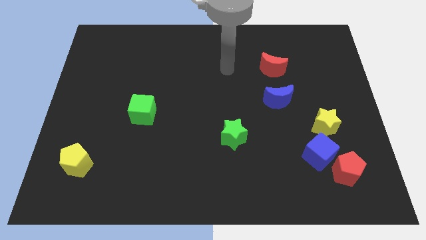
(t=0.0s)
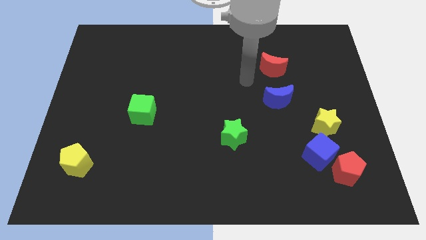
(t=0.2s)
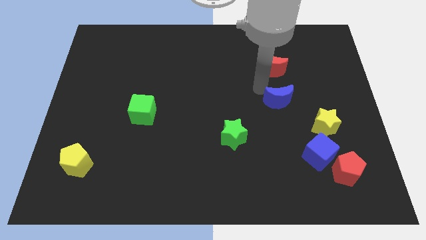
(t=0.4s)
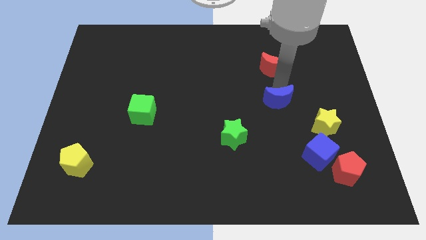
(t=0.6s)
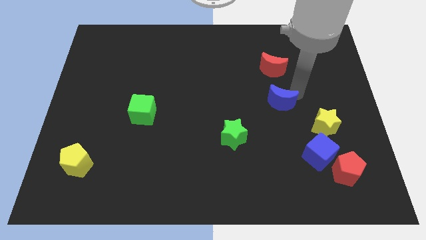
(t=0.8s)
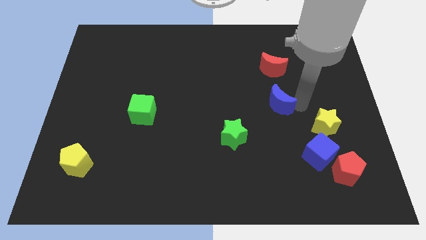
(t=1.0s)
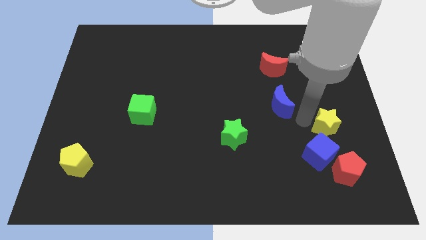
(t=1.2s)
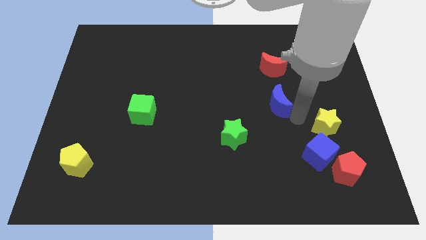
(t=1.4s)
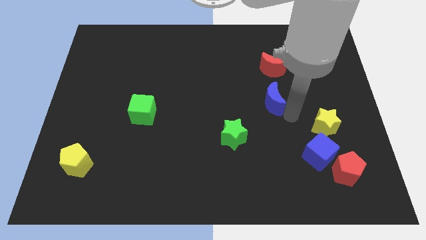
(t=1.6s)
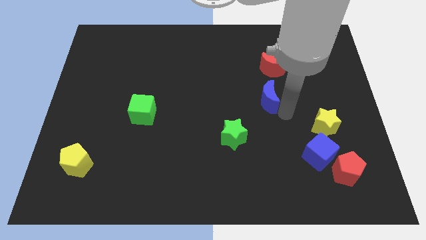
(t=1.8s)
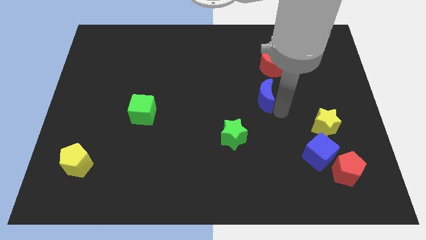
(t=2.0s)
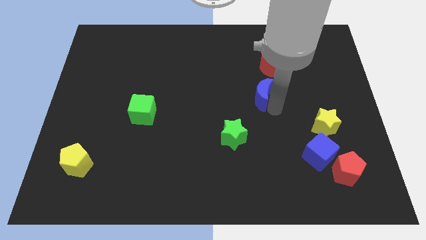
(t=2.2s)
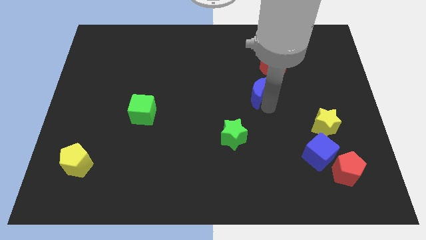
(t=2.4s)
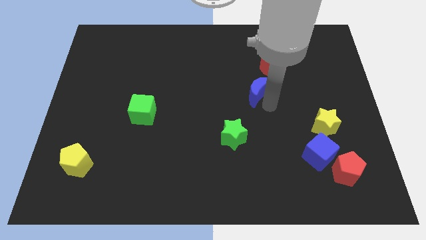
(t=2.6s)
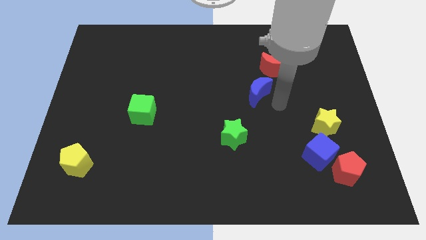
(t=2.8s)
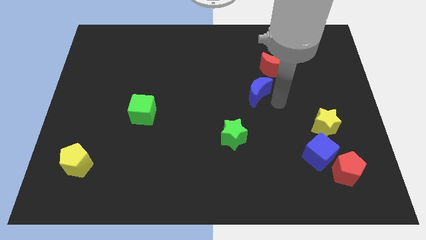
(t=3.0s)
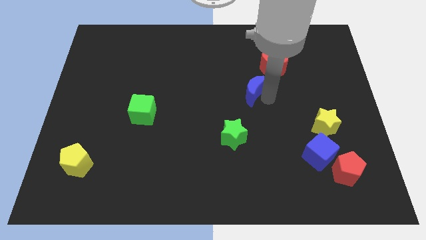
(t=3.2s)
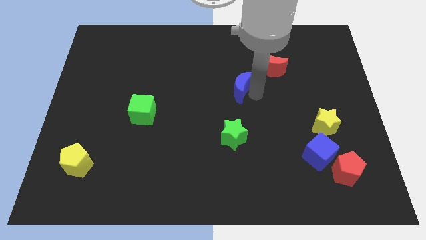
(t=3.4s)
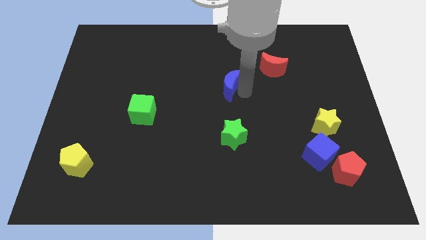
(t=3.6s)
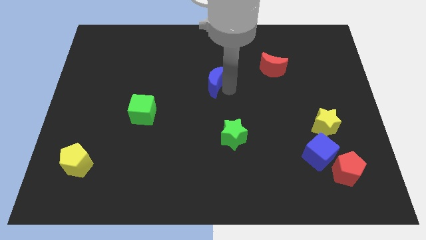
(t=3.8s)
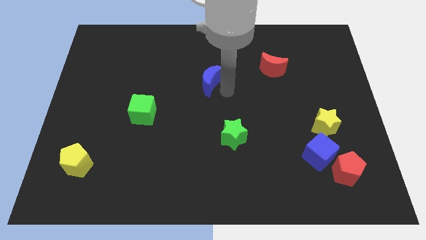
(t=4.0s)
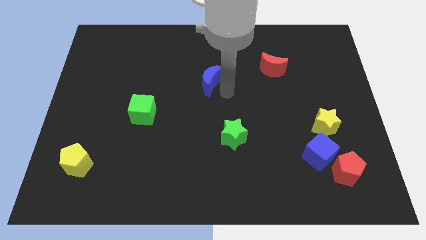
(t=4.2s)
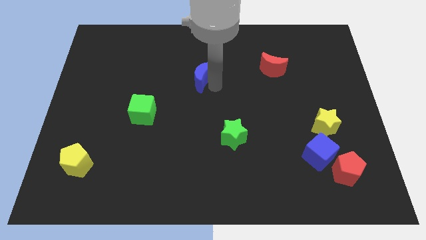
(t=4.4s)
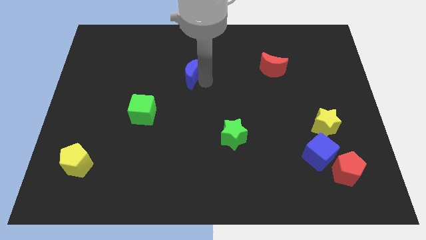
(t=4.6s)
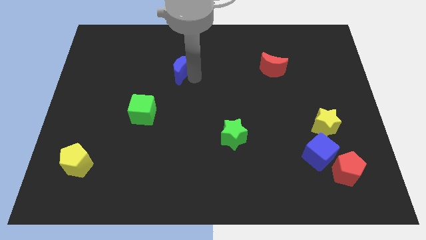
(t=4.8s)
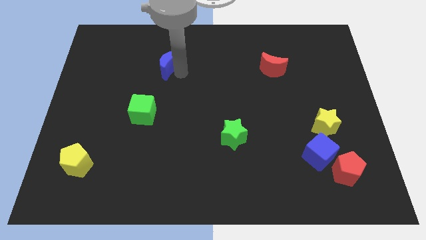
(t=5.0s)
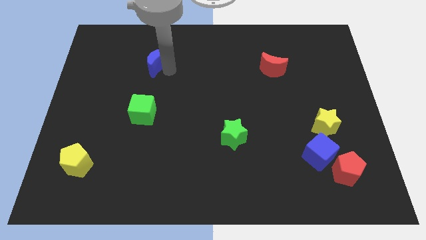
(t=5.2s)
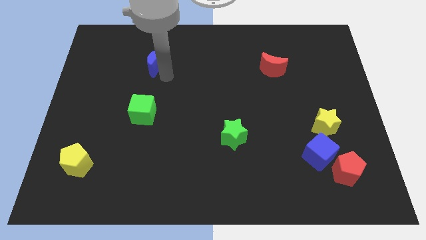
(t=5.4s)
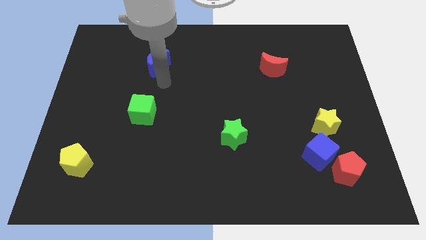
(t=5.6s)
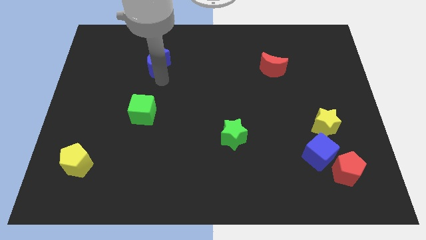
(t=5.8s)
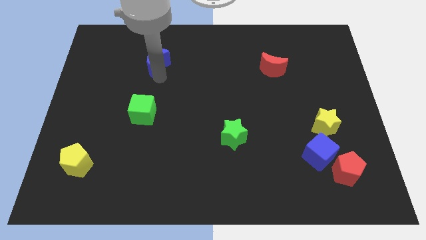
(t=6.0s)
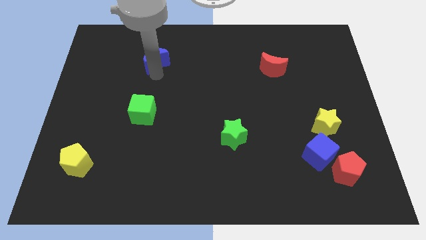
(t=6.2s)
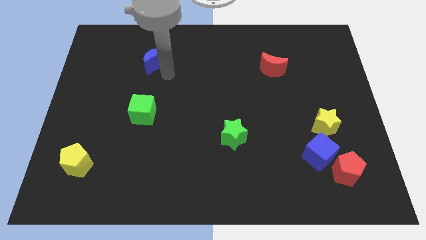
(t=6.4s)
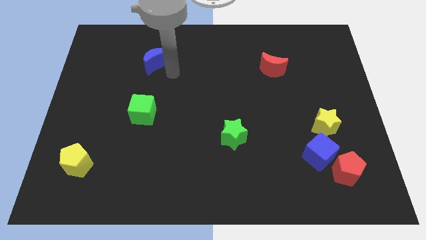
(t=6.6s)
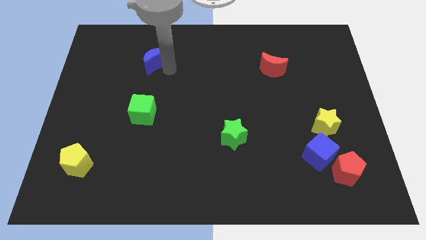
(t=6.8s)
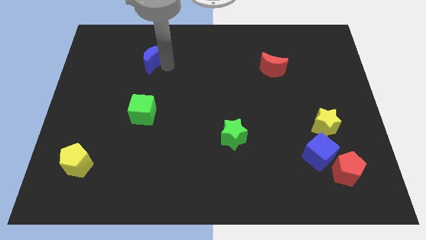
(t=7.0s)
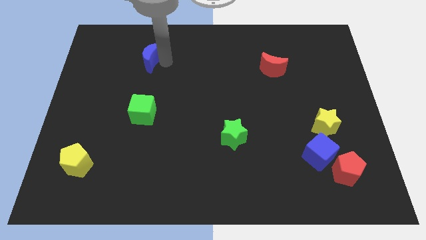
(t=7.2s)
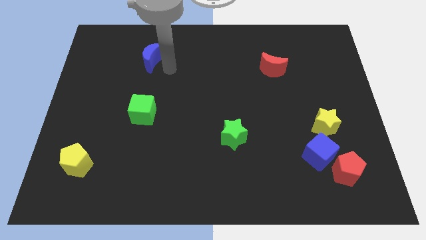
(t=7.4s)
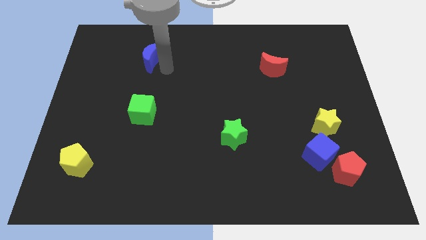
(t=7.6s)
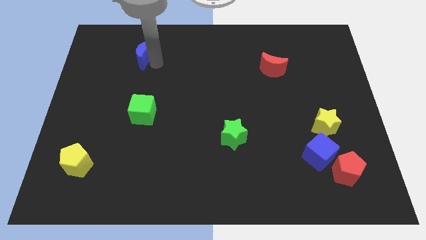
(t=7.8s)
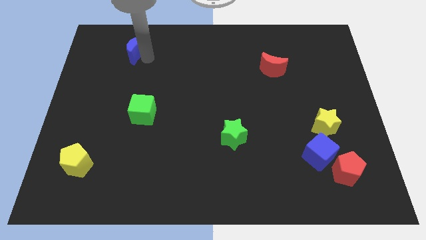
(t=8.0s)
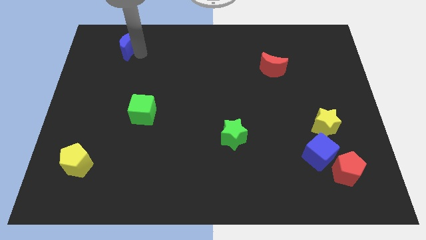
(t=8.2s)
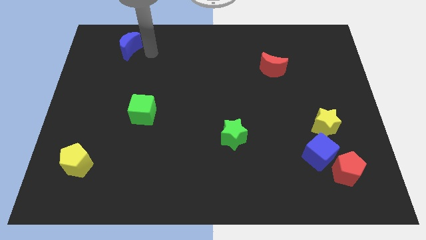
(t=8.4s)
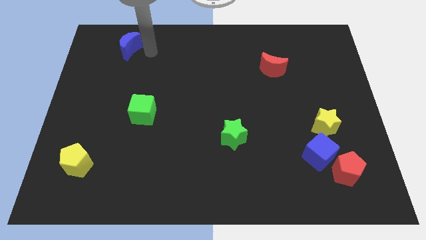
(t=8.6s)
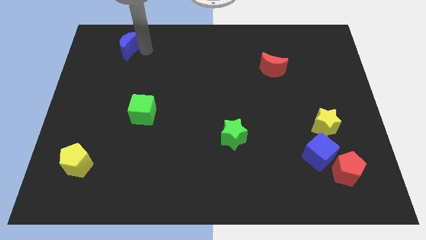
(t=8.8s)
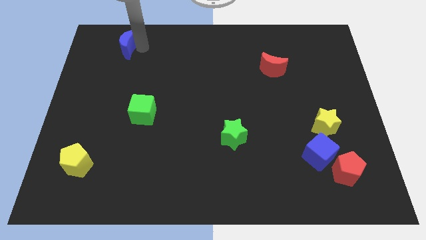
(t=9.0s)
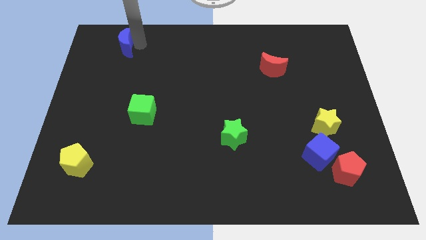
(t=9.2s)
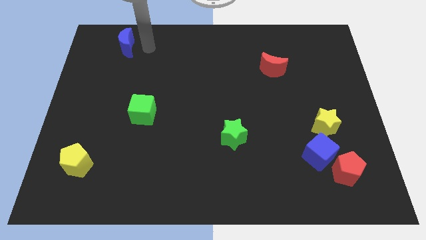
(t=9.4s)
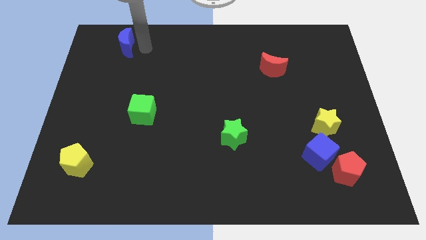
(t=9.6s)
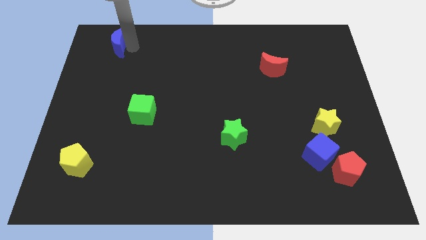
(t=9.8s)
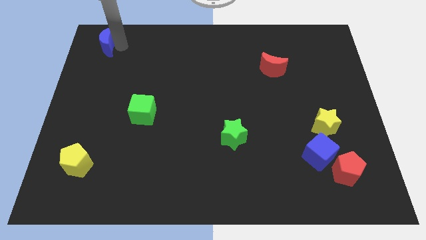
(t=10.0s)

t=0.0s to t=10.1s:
slide the blue moon to the top left

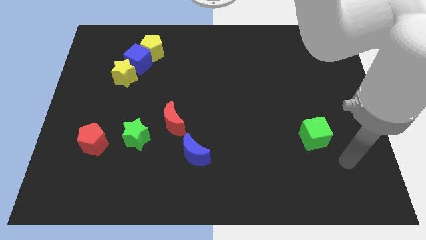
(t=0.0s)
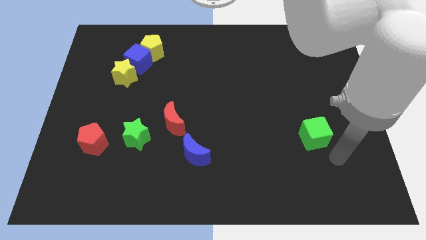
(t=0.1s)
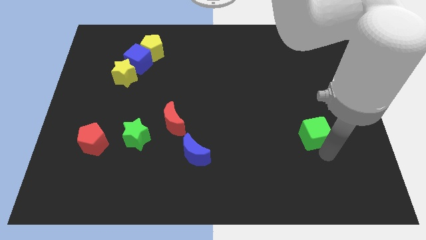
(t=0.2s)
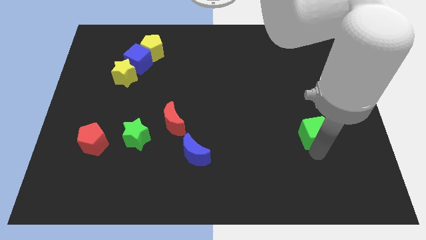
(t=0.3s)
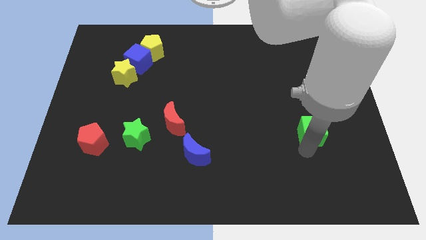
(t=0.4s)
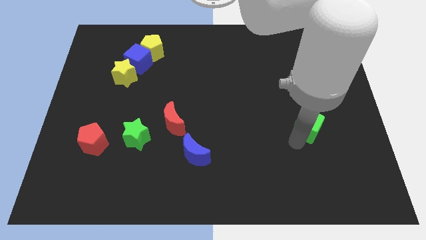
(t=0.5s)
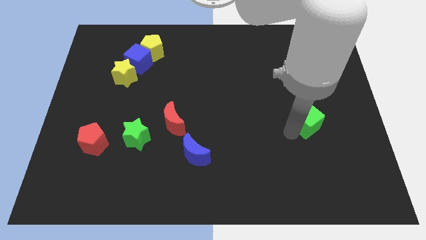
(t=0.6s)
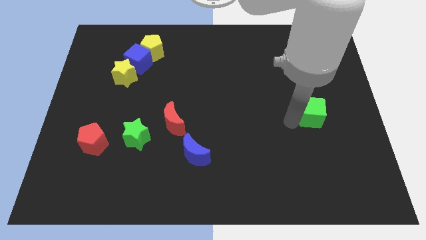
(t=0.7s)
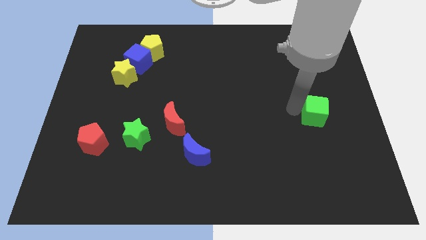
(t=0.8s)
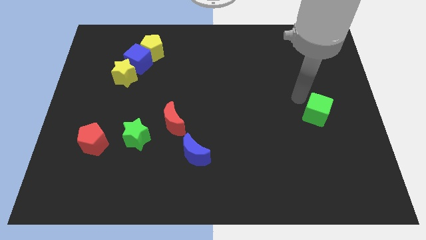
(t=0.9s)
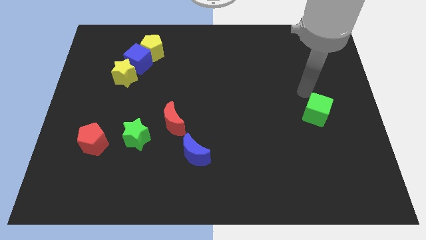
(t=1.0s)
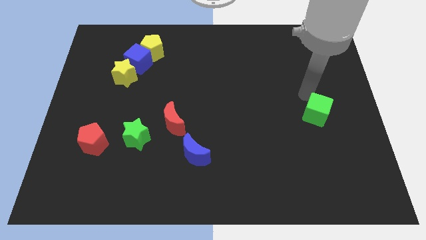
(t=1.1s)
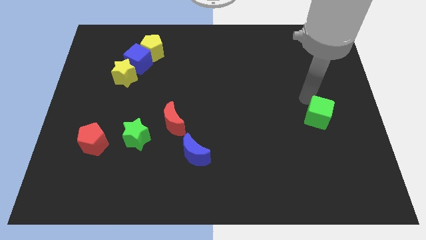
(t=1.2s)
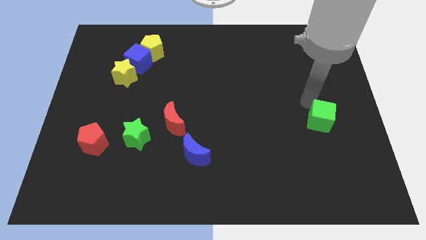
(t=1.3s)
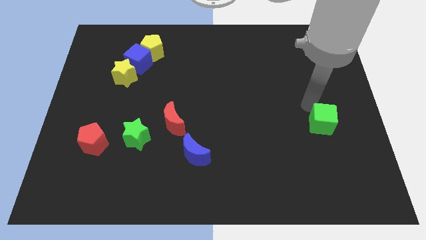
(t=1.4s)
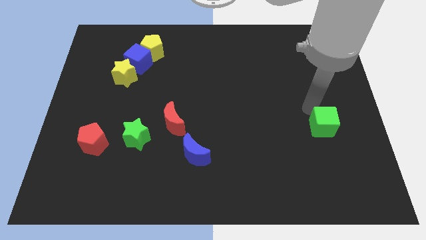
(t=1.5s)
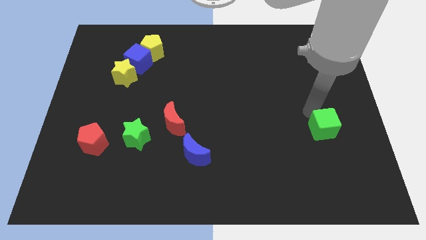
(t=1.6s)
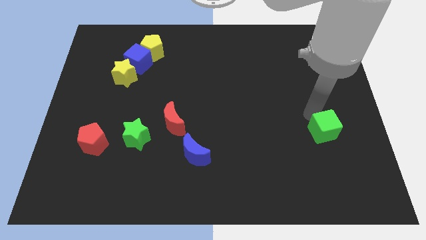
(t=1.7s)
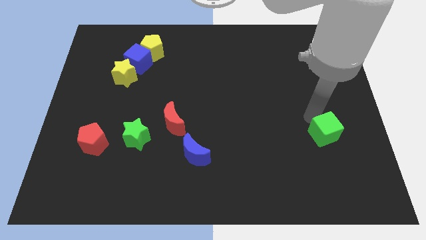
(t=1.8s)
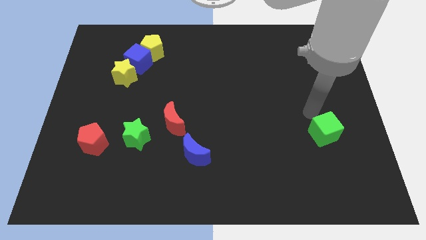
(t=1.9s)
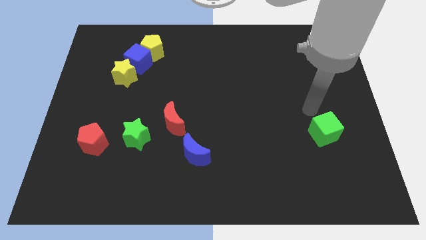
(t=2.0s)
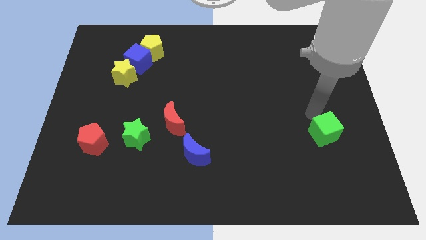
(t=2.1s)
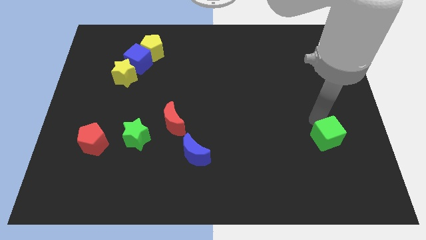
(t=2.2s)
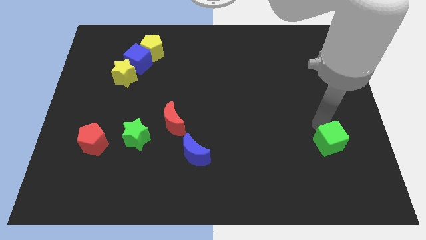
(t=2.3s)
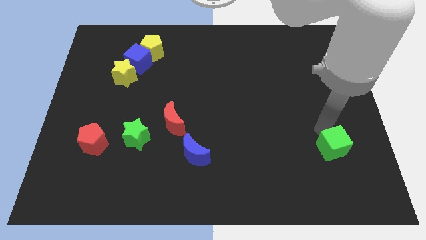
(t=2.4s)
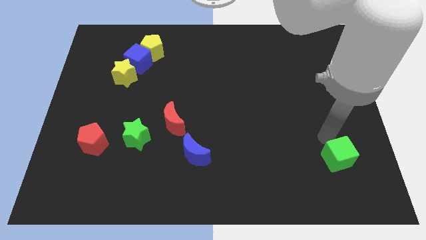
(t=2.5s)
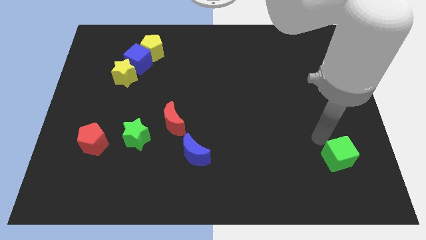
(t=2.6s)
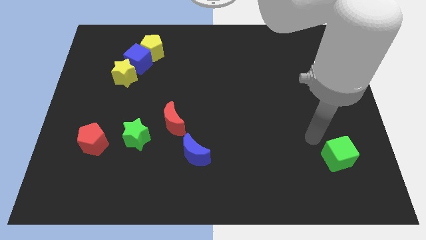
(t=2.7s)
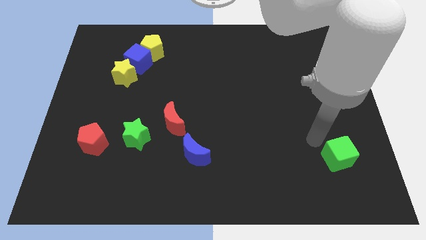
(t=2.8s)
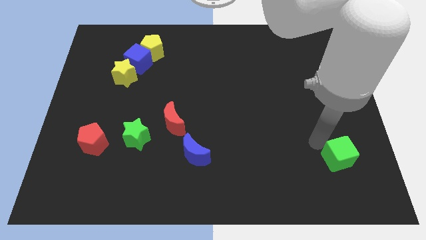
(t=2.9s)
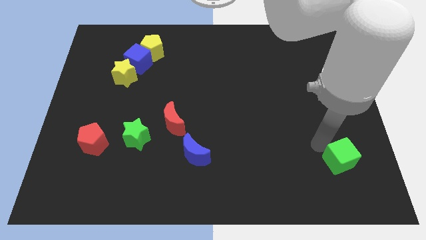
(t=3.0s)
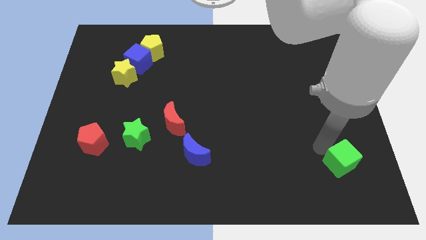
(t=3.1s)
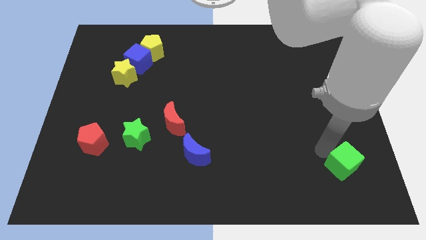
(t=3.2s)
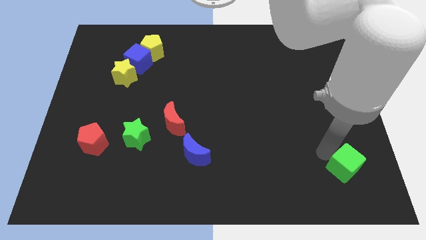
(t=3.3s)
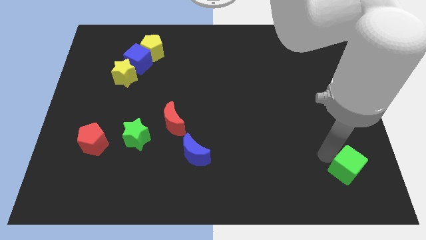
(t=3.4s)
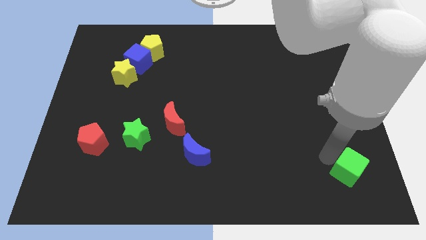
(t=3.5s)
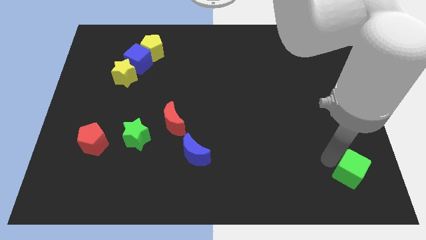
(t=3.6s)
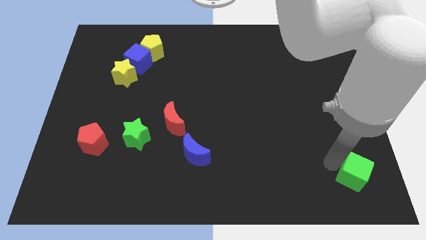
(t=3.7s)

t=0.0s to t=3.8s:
push the green cube to the bottom right corner
